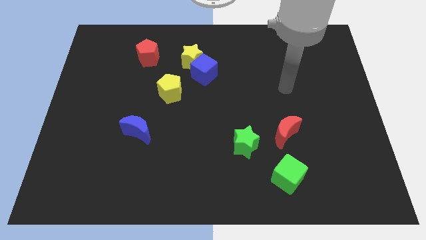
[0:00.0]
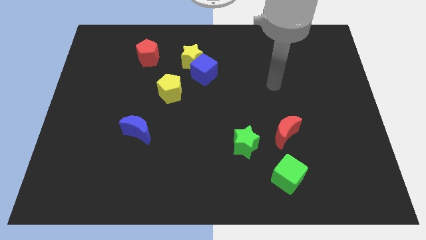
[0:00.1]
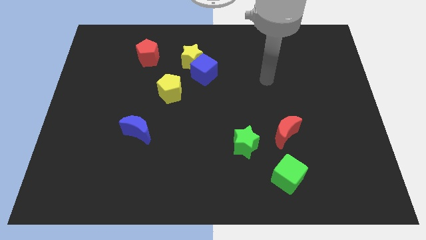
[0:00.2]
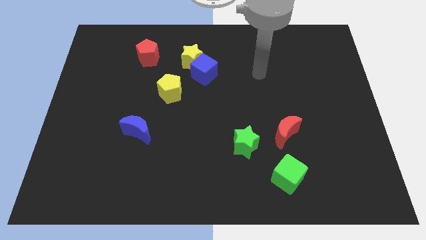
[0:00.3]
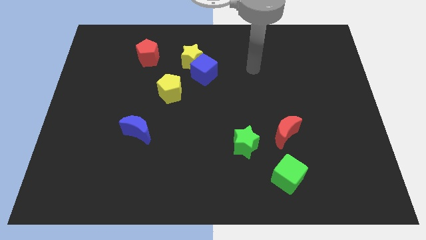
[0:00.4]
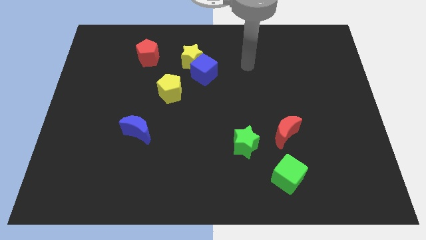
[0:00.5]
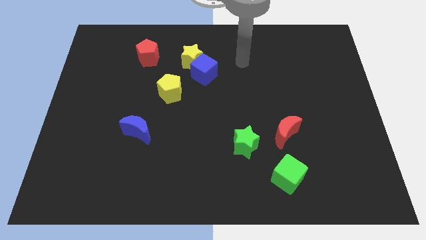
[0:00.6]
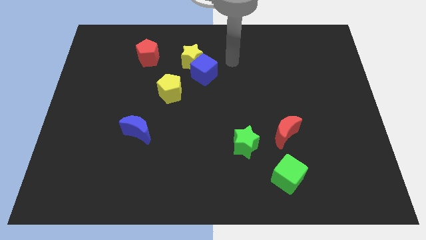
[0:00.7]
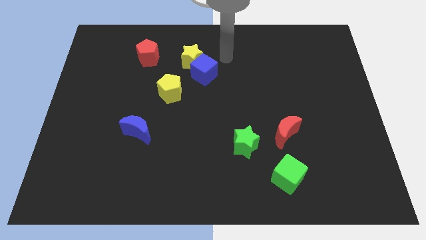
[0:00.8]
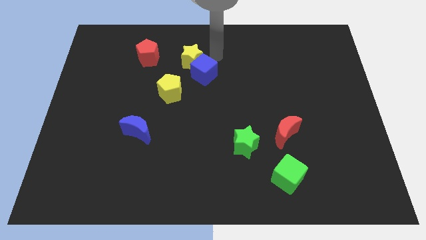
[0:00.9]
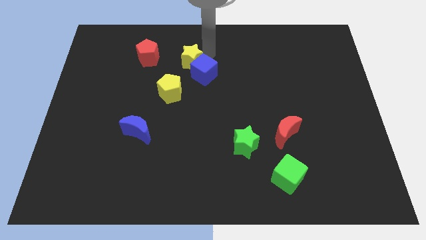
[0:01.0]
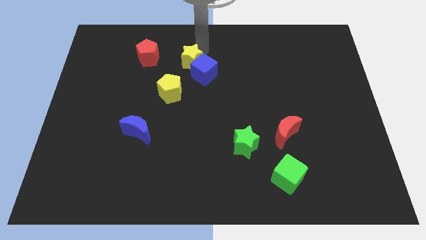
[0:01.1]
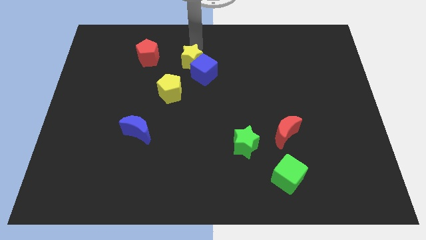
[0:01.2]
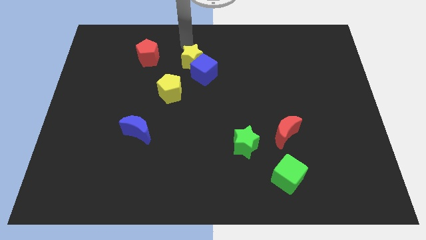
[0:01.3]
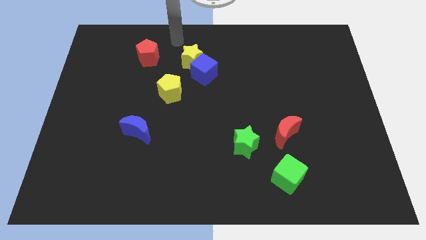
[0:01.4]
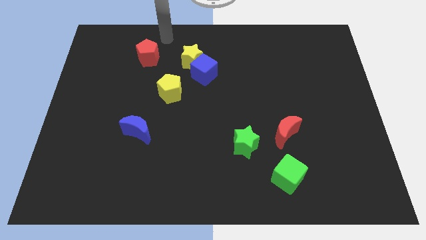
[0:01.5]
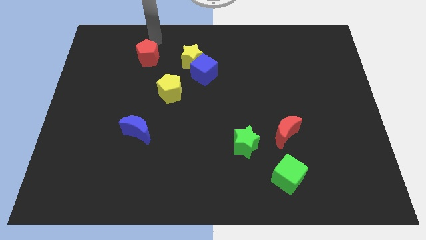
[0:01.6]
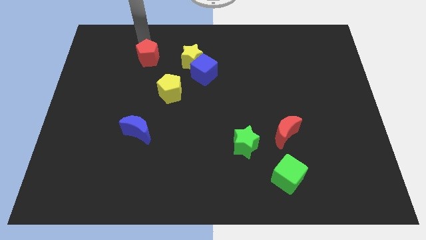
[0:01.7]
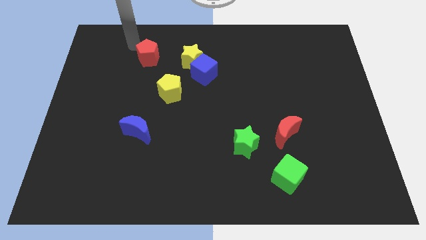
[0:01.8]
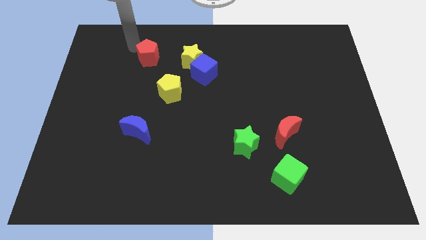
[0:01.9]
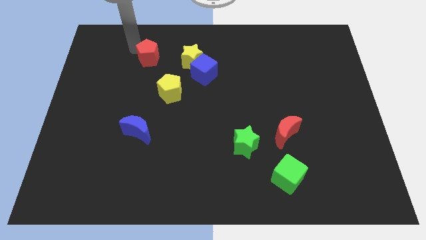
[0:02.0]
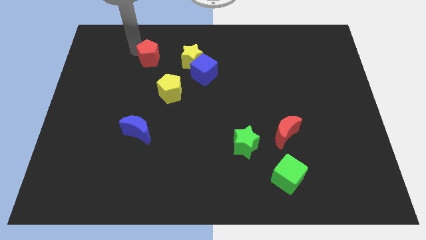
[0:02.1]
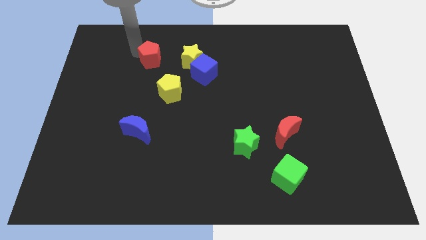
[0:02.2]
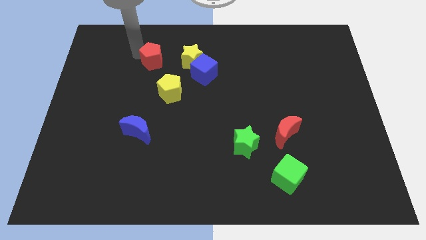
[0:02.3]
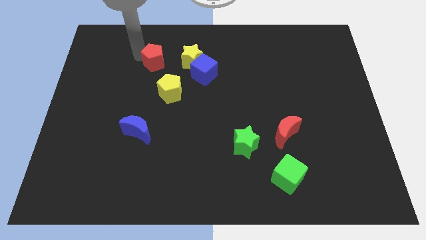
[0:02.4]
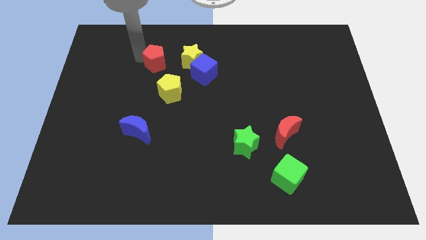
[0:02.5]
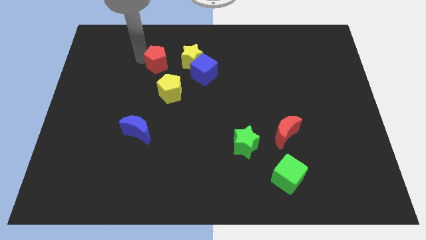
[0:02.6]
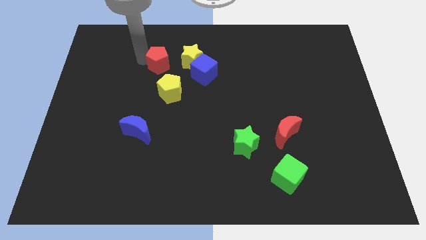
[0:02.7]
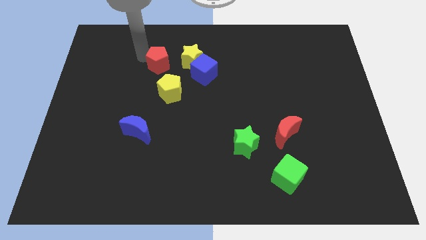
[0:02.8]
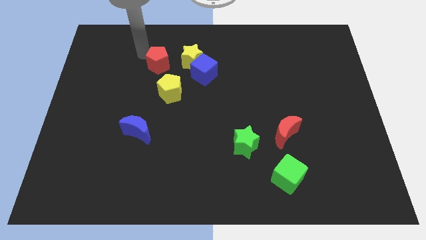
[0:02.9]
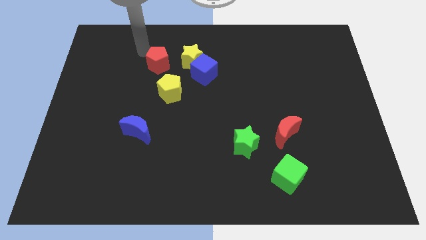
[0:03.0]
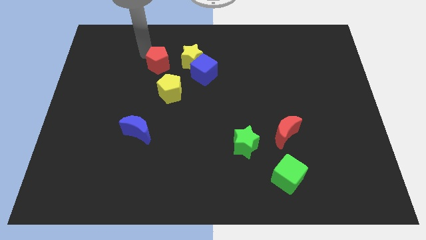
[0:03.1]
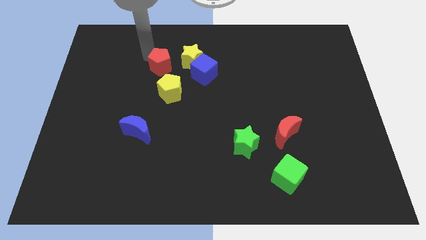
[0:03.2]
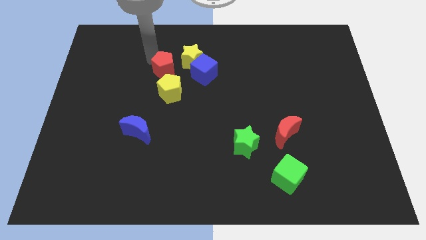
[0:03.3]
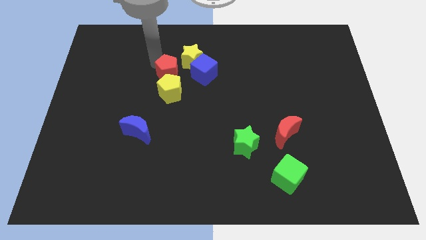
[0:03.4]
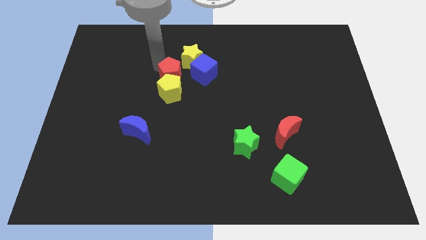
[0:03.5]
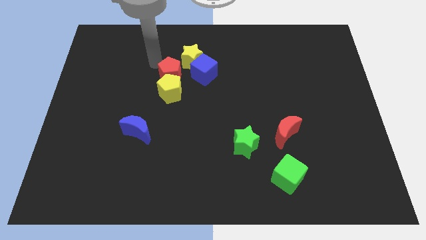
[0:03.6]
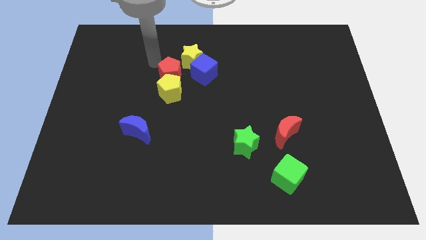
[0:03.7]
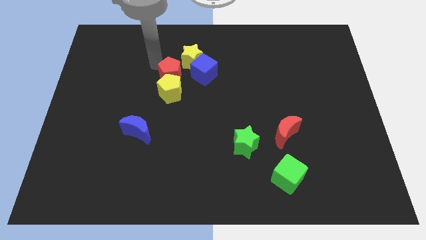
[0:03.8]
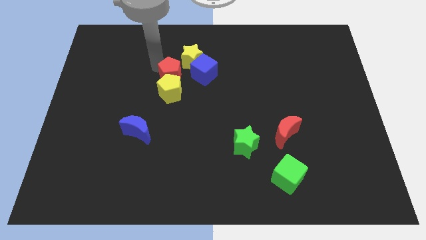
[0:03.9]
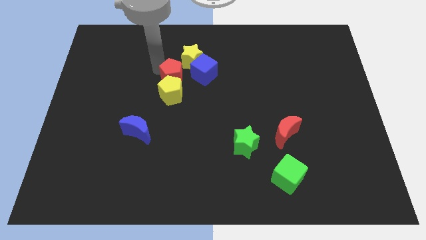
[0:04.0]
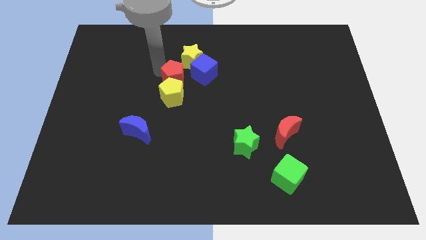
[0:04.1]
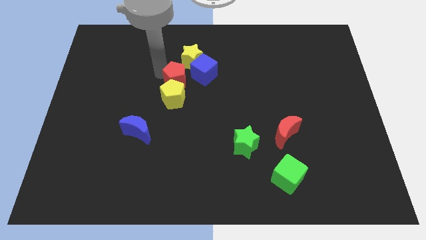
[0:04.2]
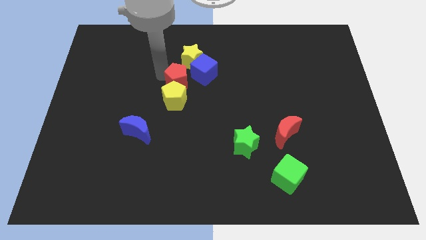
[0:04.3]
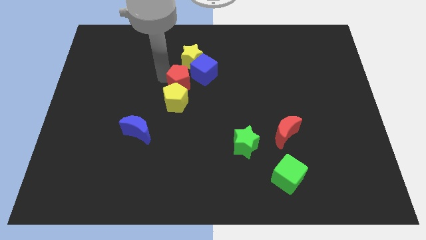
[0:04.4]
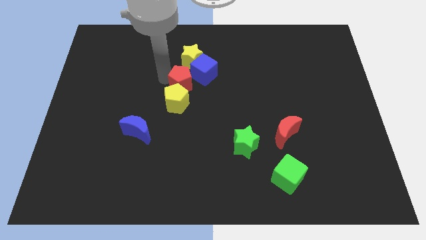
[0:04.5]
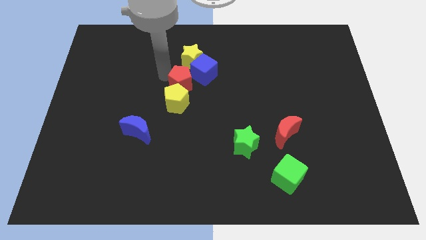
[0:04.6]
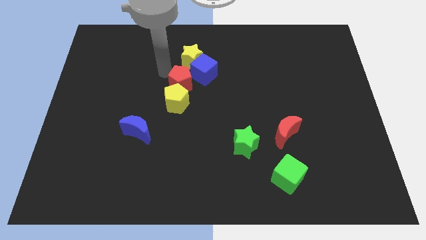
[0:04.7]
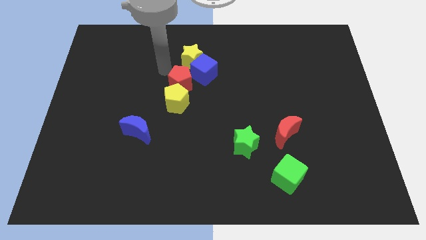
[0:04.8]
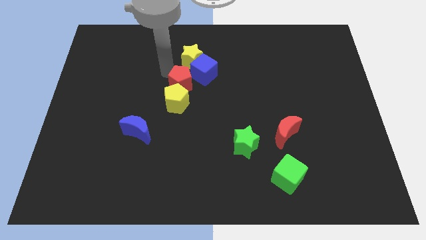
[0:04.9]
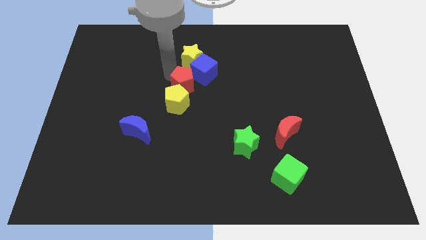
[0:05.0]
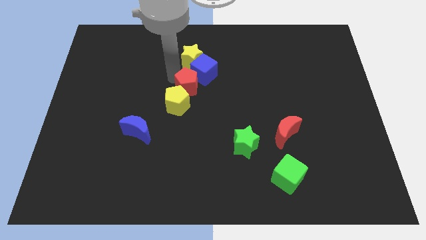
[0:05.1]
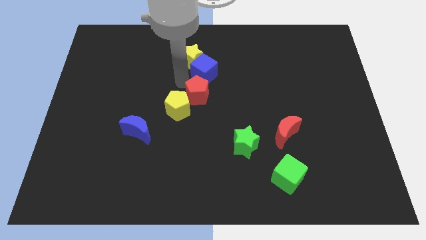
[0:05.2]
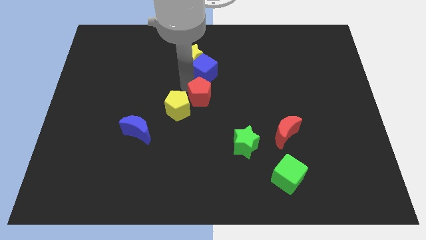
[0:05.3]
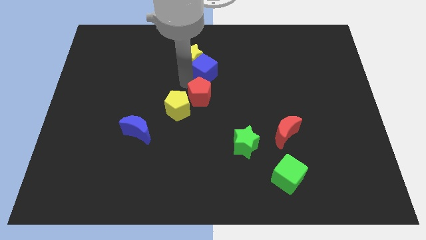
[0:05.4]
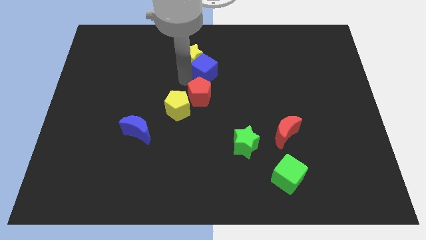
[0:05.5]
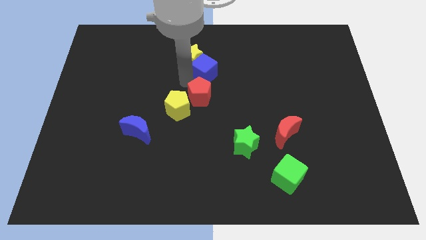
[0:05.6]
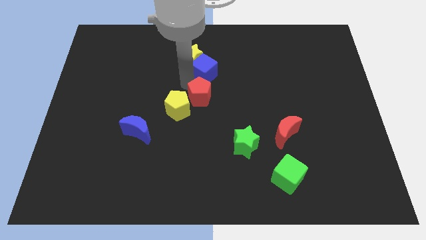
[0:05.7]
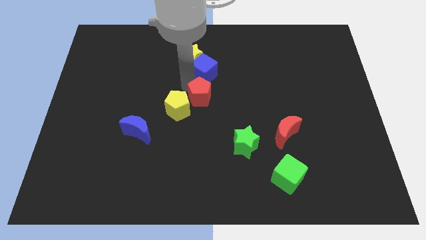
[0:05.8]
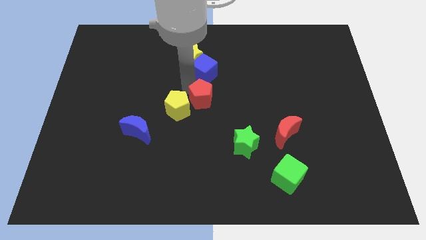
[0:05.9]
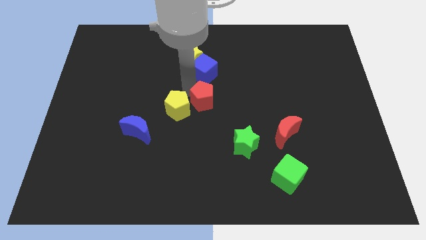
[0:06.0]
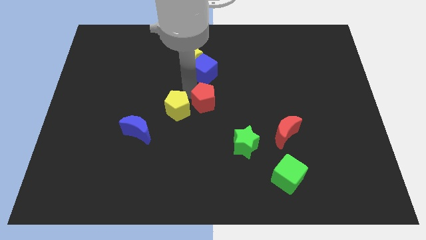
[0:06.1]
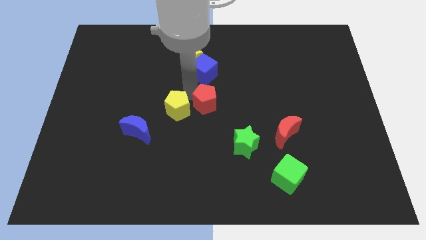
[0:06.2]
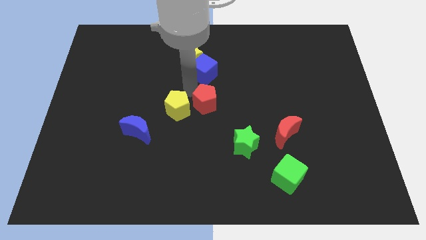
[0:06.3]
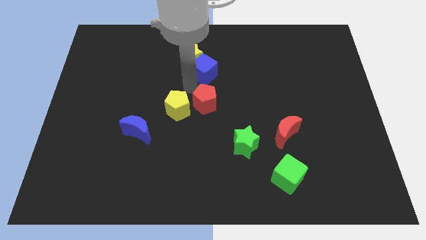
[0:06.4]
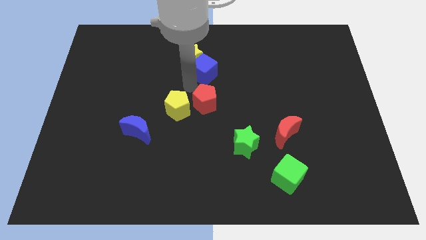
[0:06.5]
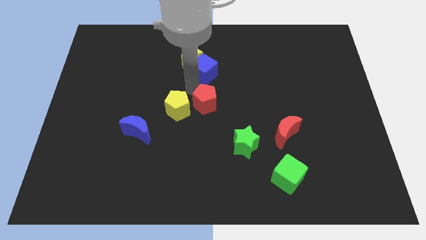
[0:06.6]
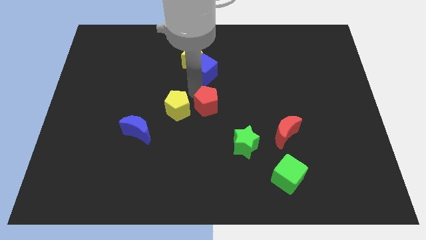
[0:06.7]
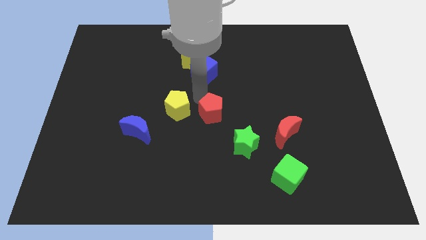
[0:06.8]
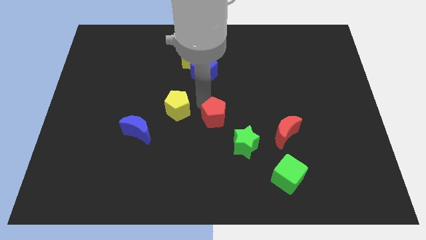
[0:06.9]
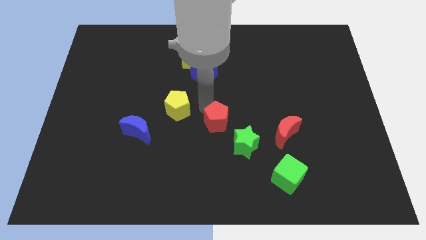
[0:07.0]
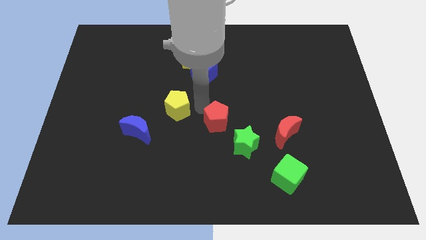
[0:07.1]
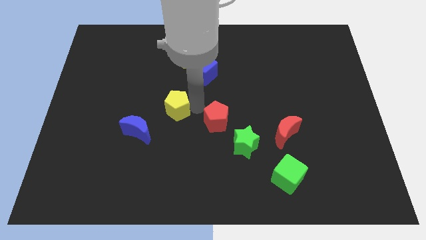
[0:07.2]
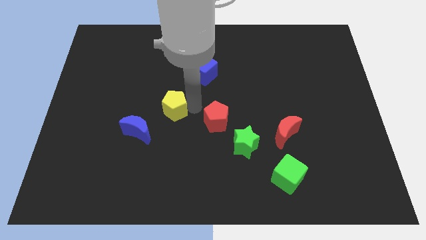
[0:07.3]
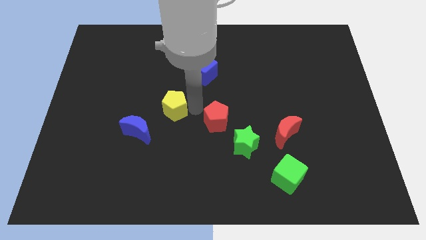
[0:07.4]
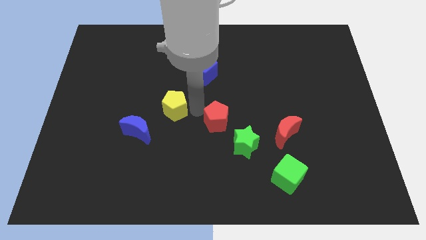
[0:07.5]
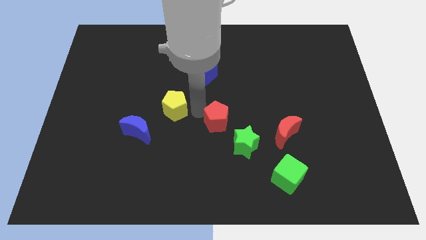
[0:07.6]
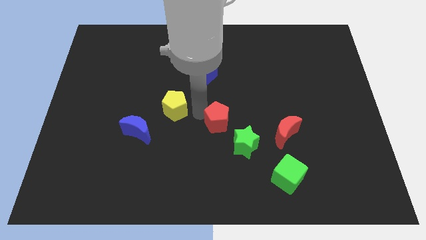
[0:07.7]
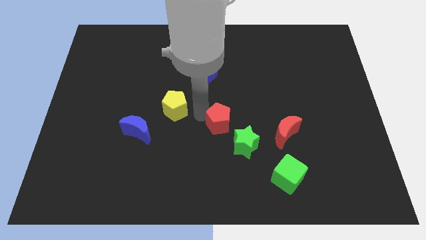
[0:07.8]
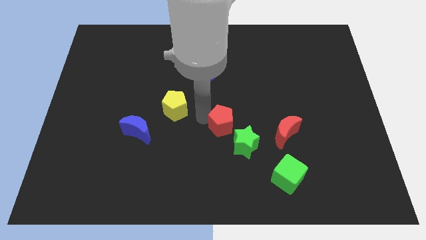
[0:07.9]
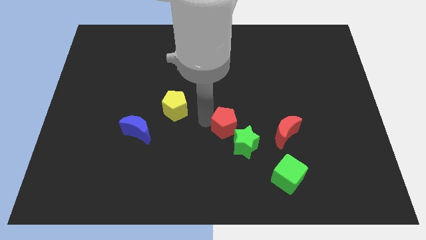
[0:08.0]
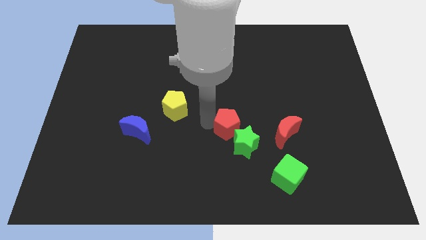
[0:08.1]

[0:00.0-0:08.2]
move the red pentagon to the green star
